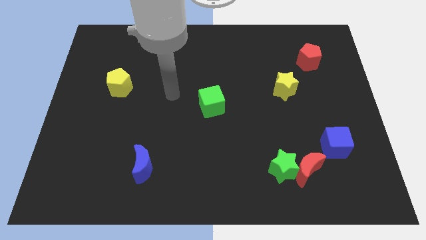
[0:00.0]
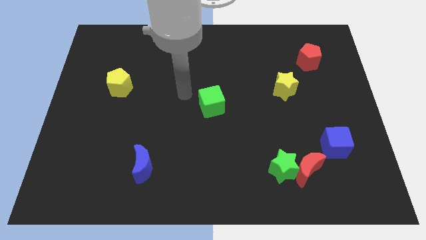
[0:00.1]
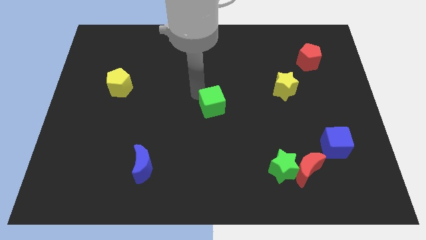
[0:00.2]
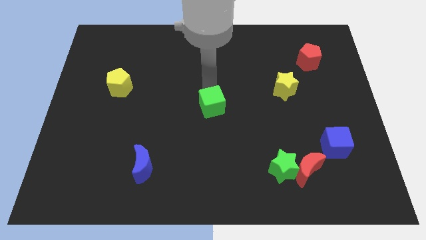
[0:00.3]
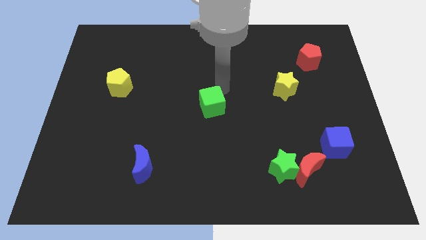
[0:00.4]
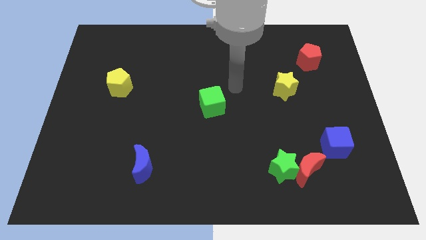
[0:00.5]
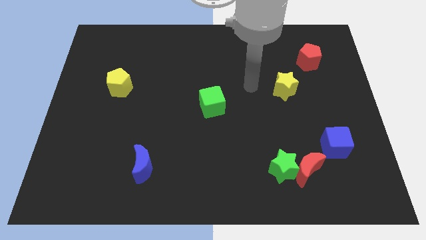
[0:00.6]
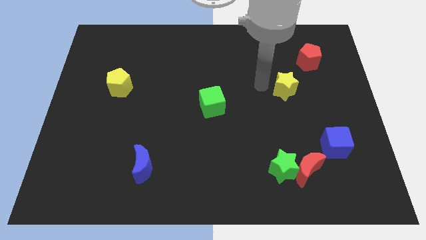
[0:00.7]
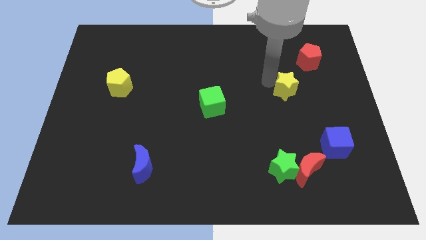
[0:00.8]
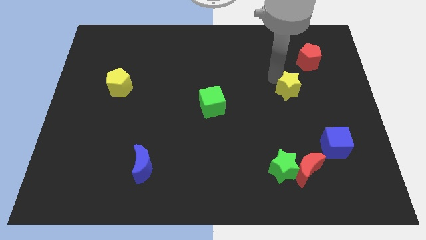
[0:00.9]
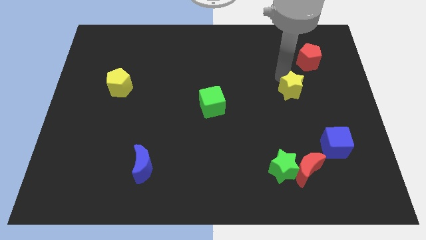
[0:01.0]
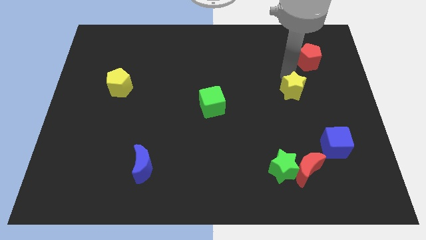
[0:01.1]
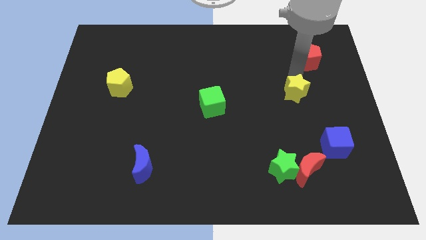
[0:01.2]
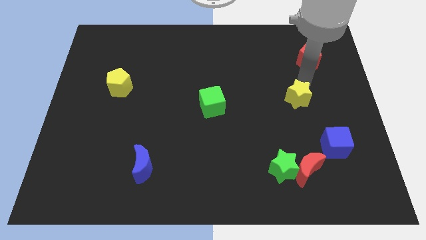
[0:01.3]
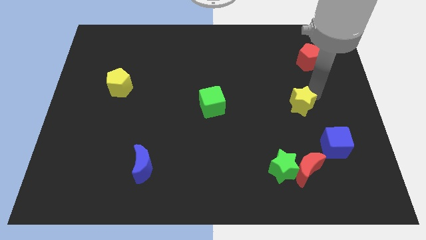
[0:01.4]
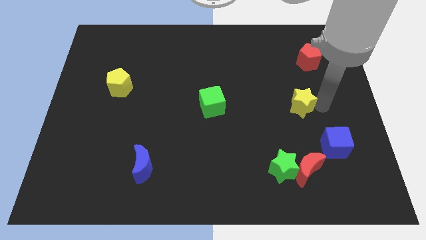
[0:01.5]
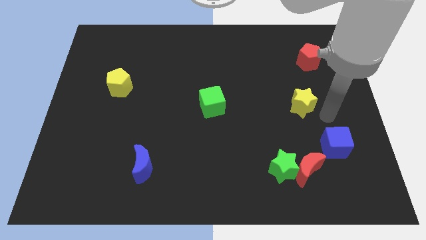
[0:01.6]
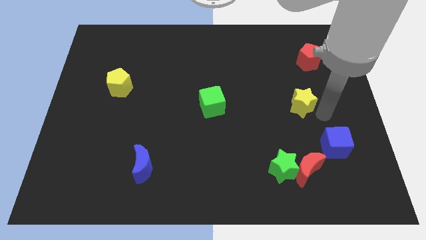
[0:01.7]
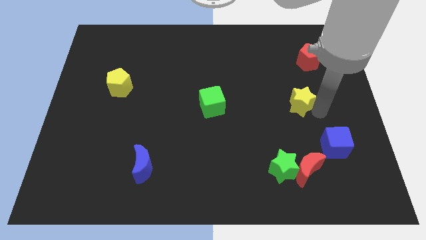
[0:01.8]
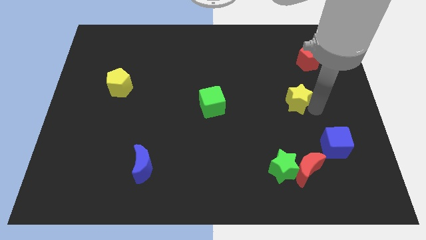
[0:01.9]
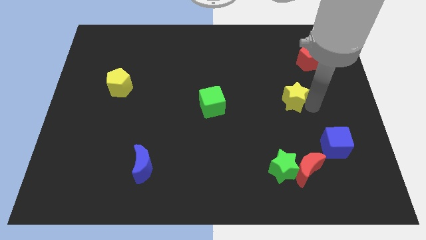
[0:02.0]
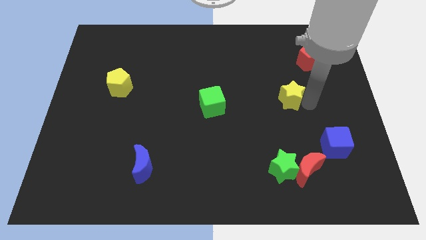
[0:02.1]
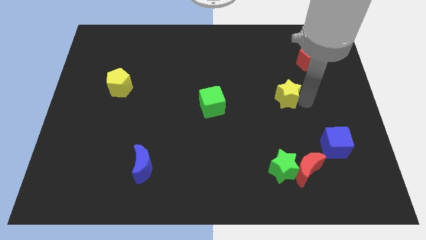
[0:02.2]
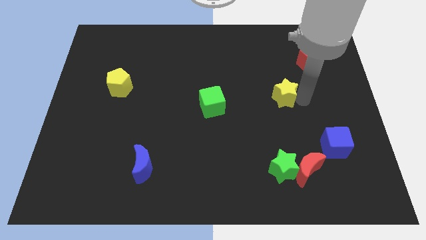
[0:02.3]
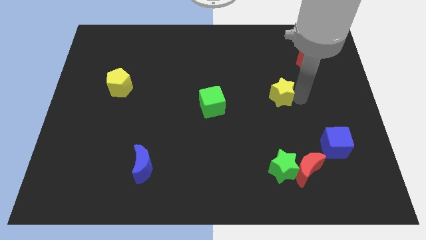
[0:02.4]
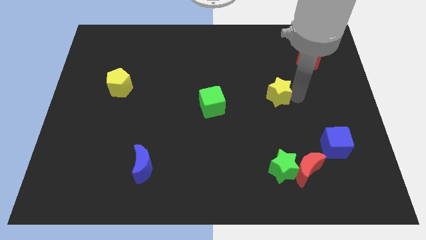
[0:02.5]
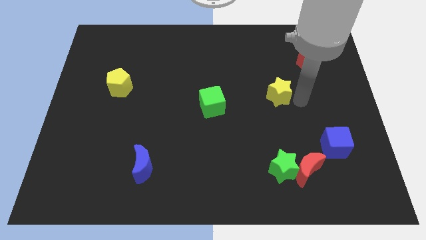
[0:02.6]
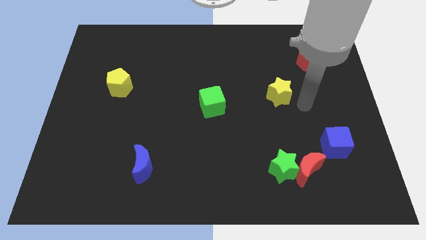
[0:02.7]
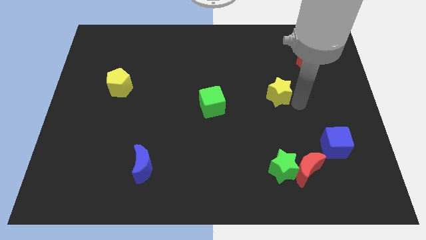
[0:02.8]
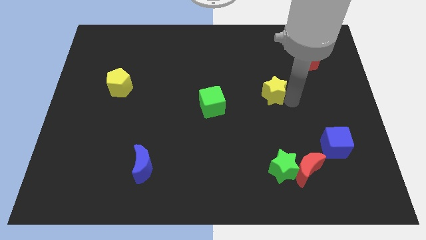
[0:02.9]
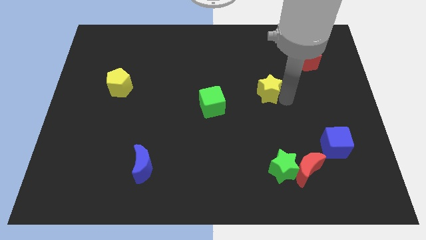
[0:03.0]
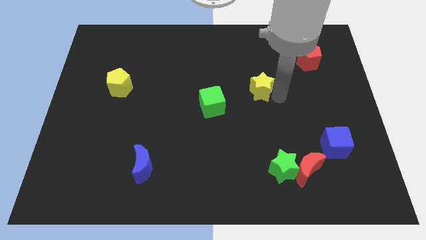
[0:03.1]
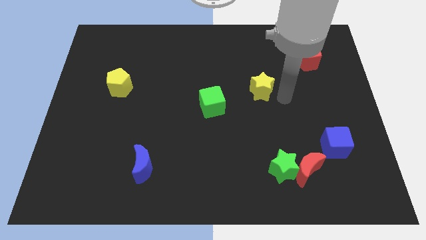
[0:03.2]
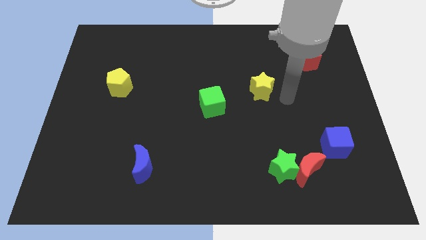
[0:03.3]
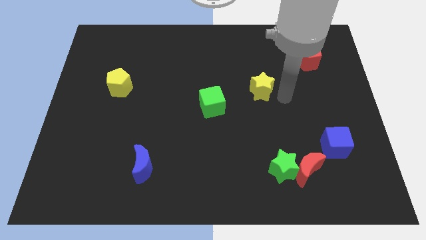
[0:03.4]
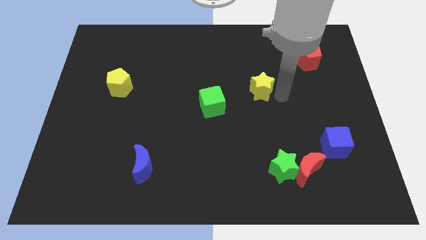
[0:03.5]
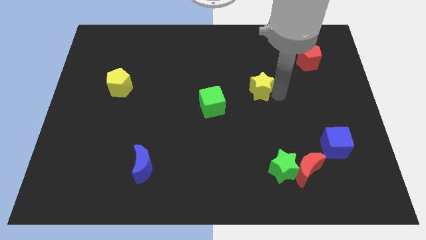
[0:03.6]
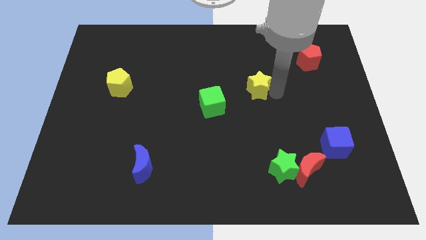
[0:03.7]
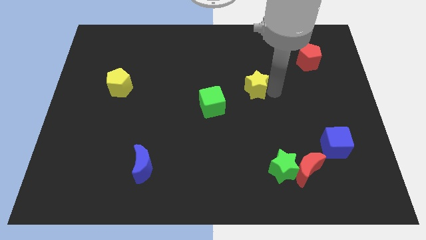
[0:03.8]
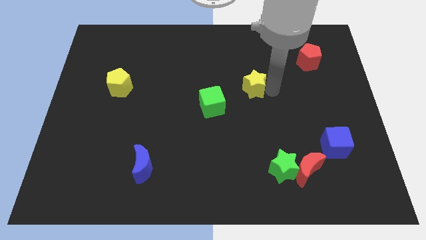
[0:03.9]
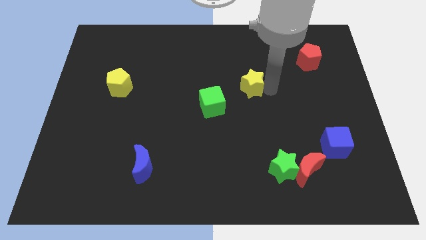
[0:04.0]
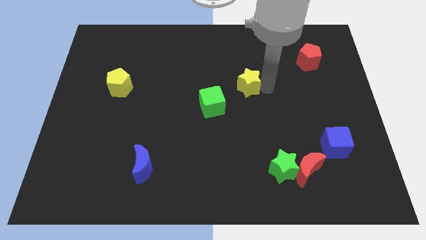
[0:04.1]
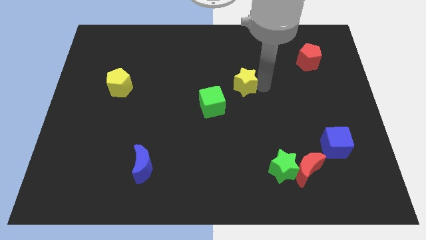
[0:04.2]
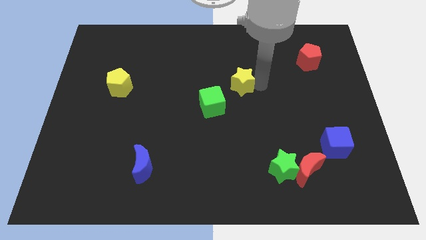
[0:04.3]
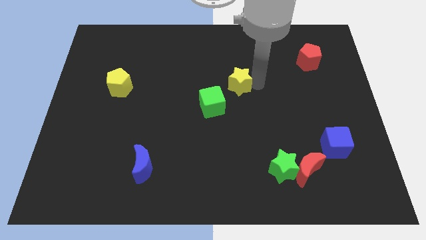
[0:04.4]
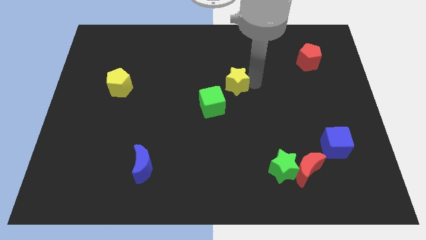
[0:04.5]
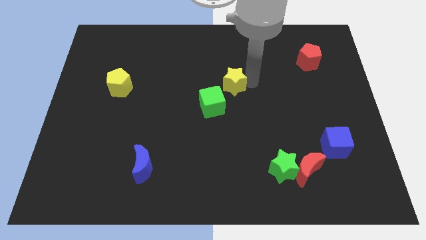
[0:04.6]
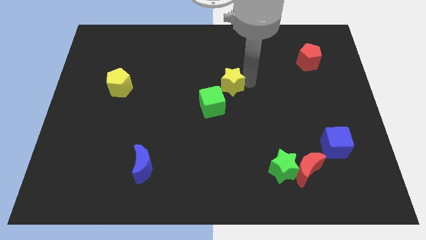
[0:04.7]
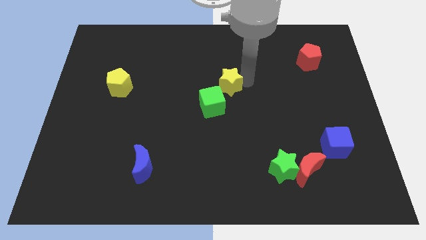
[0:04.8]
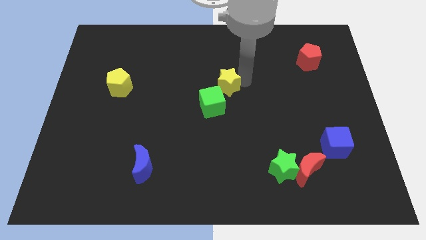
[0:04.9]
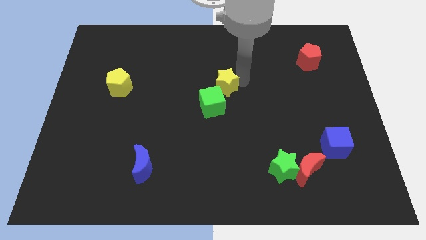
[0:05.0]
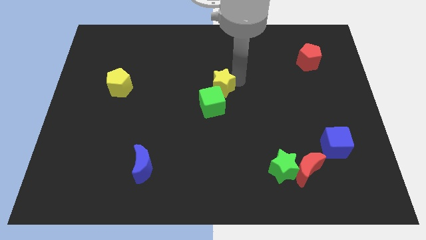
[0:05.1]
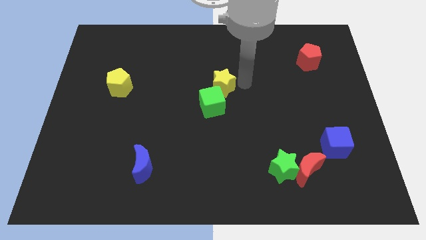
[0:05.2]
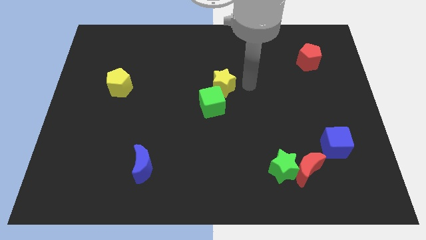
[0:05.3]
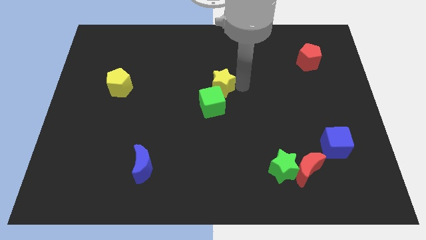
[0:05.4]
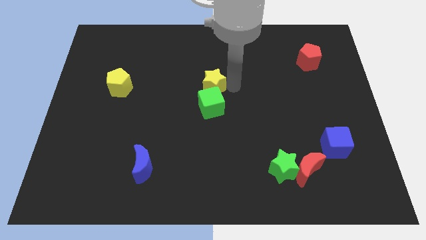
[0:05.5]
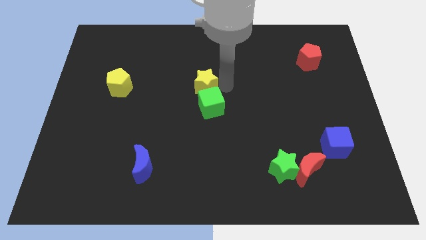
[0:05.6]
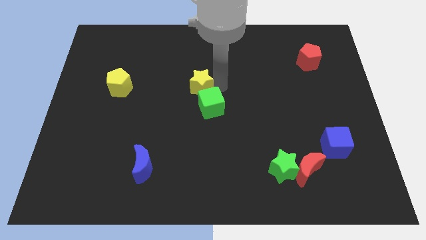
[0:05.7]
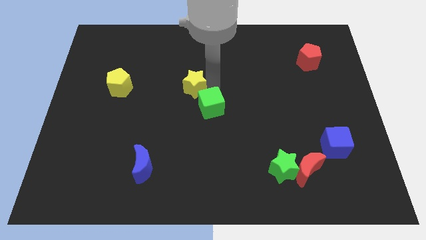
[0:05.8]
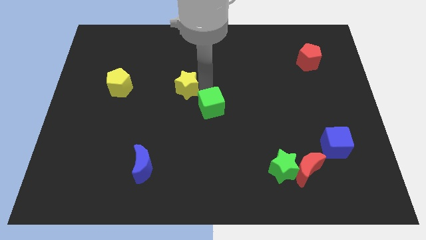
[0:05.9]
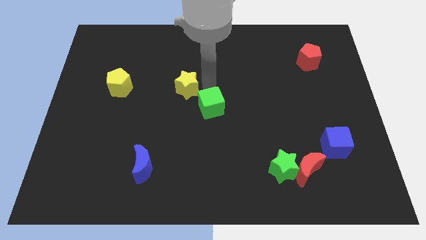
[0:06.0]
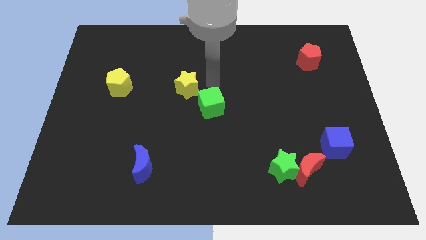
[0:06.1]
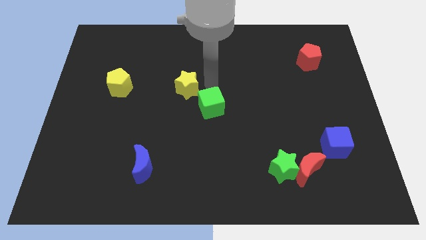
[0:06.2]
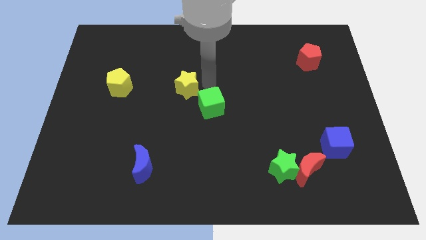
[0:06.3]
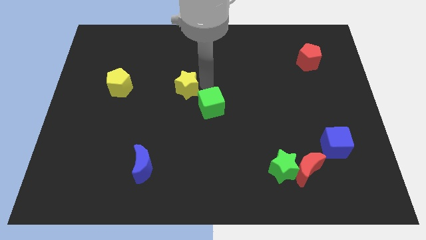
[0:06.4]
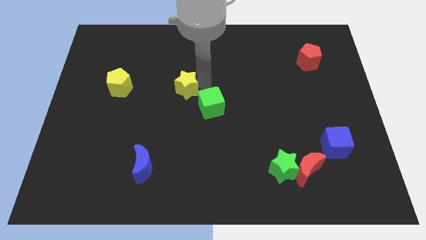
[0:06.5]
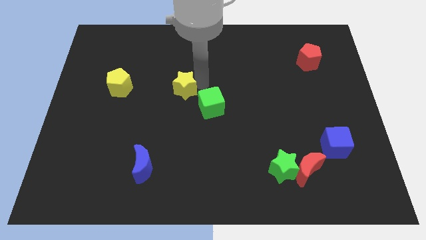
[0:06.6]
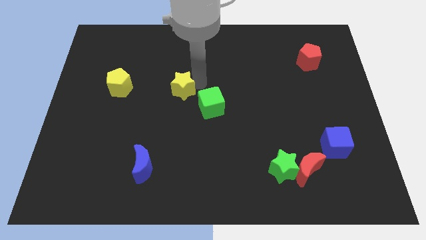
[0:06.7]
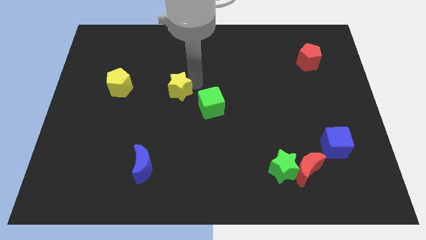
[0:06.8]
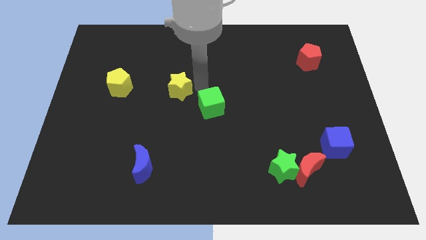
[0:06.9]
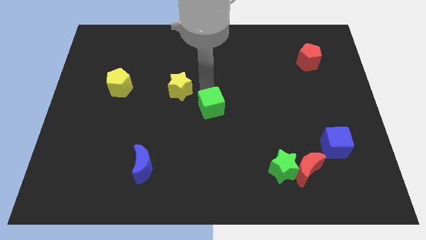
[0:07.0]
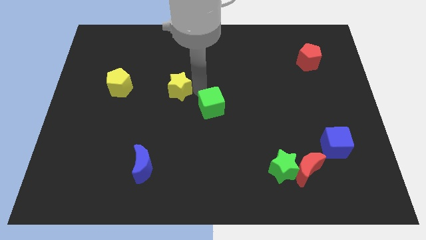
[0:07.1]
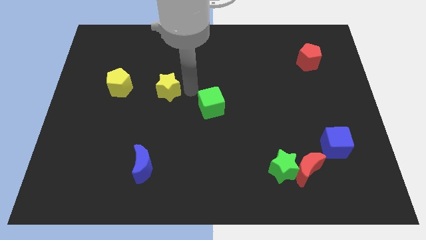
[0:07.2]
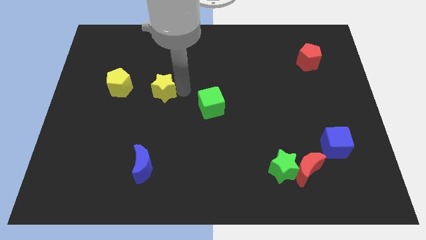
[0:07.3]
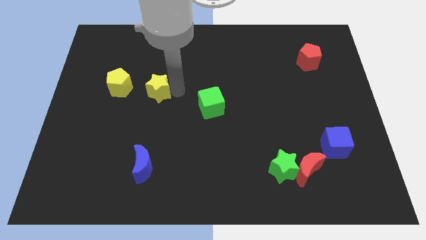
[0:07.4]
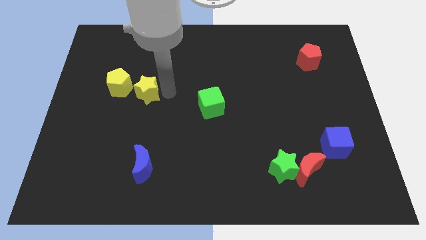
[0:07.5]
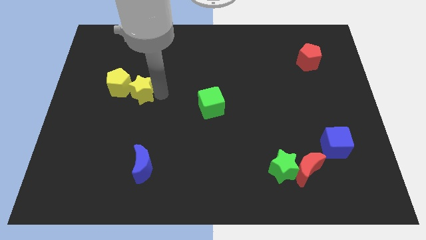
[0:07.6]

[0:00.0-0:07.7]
put the yellow star to the yellow pentagon

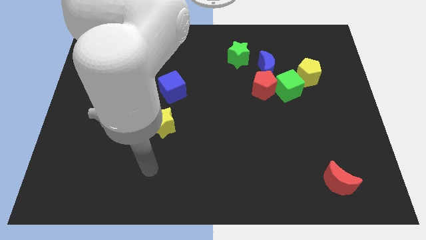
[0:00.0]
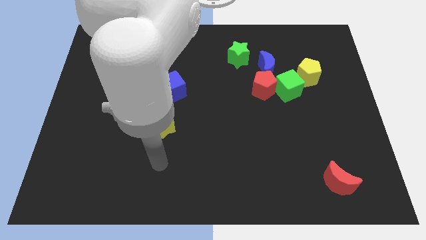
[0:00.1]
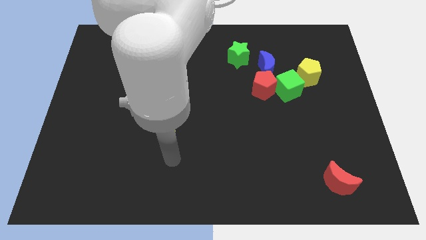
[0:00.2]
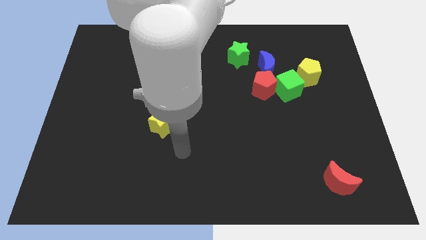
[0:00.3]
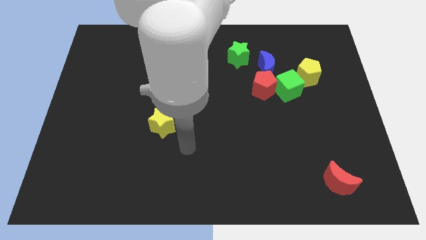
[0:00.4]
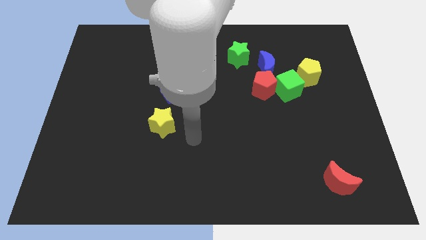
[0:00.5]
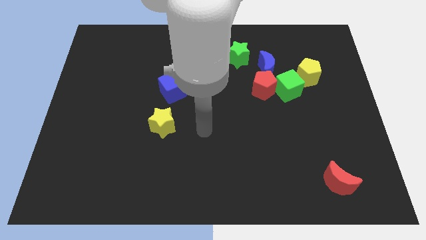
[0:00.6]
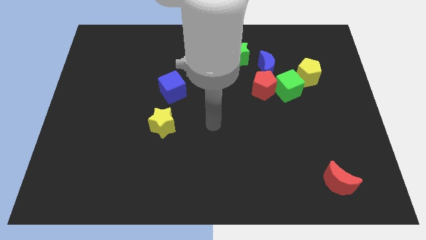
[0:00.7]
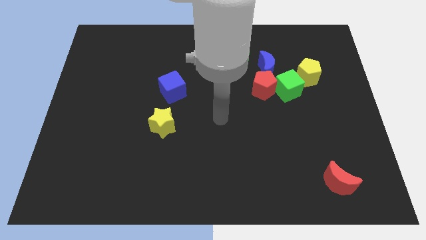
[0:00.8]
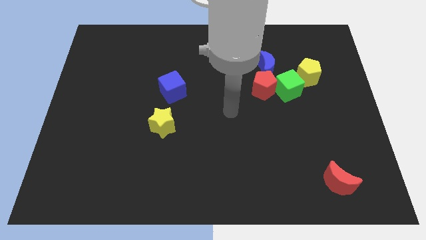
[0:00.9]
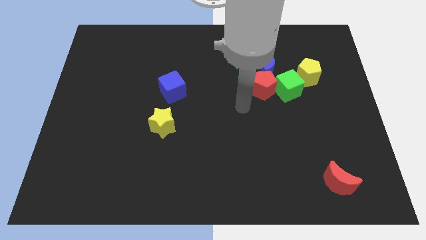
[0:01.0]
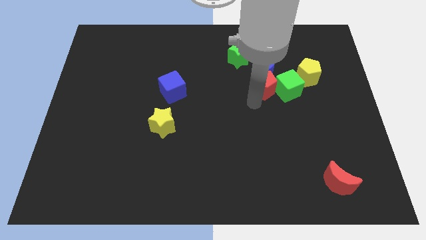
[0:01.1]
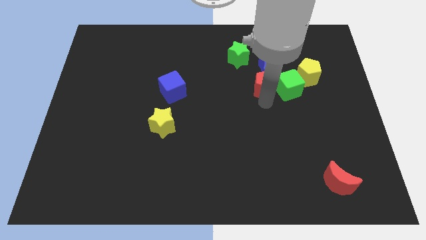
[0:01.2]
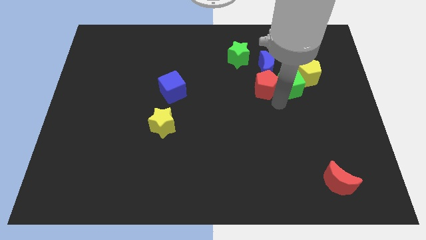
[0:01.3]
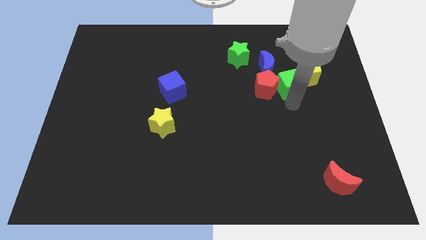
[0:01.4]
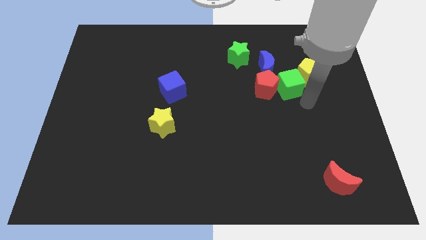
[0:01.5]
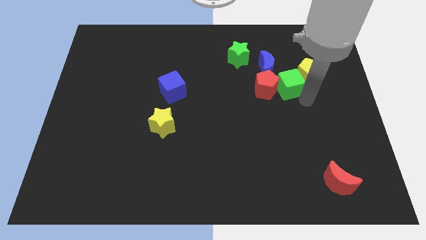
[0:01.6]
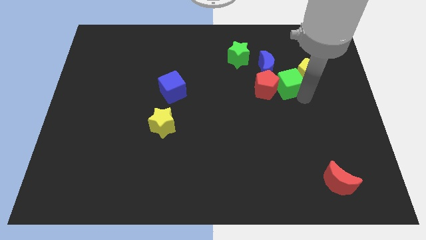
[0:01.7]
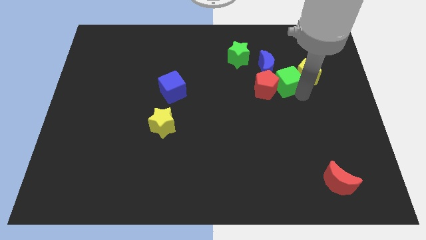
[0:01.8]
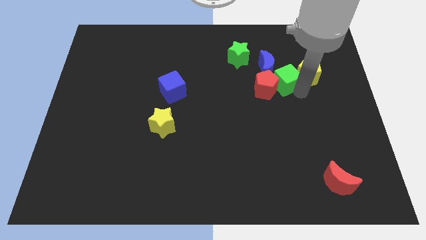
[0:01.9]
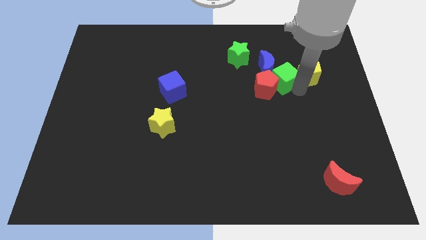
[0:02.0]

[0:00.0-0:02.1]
put the green cube next to the blue moon
